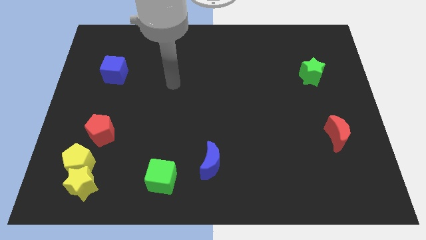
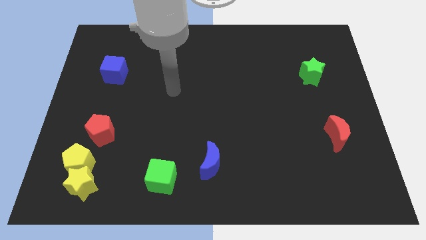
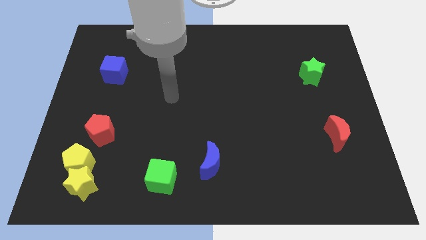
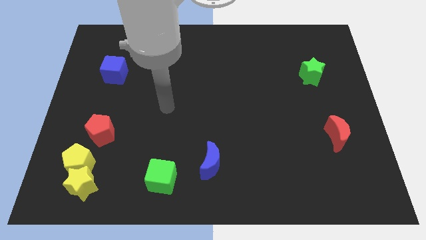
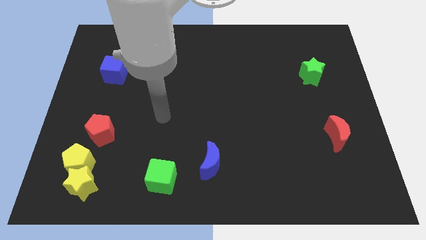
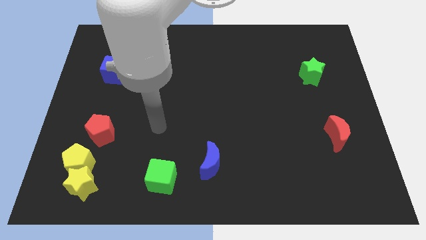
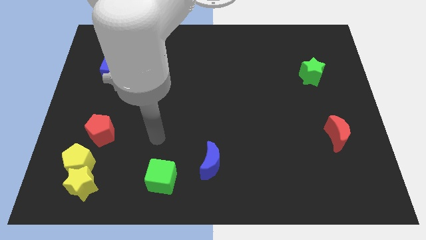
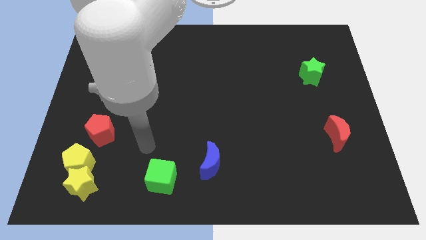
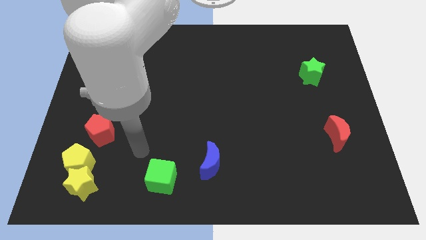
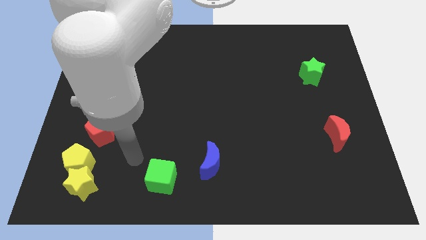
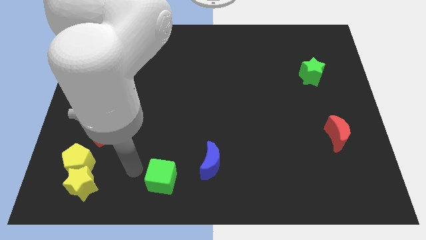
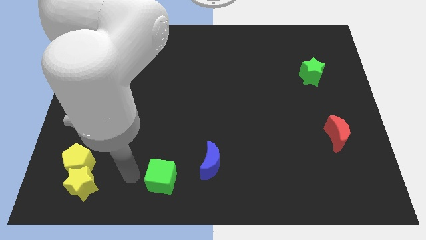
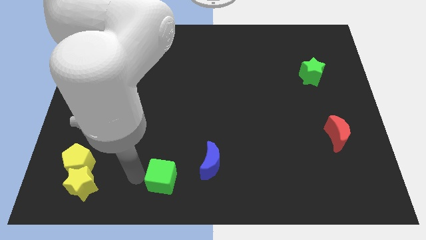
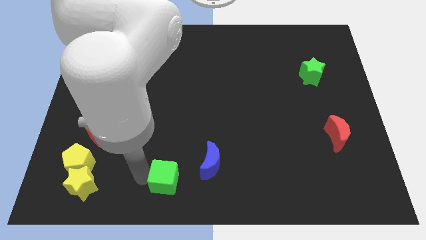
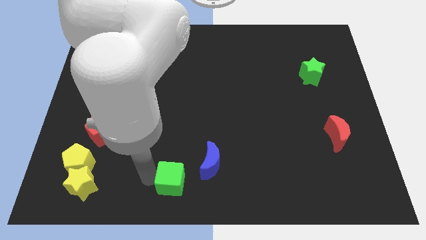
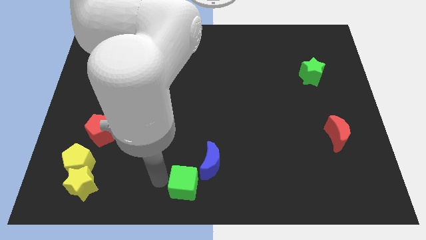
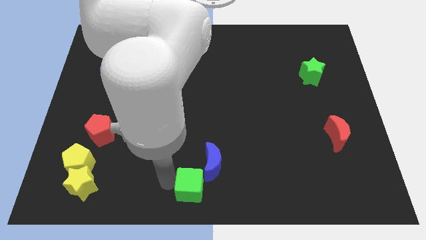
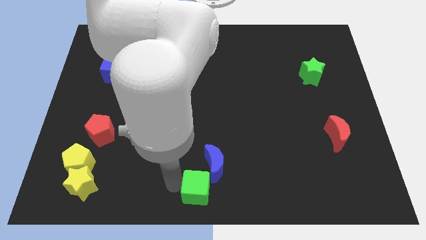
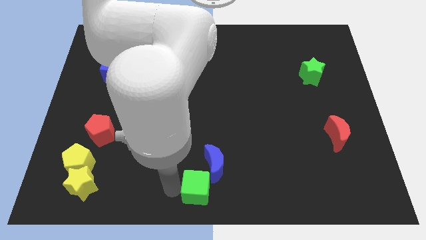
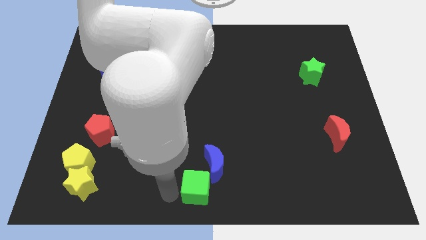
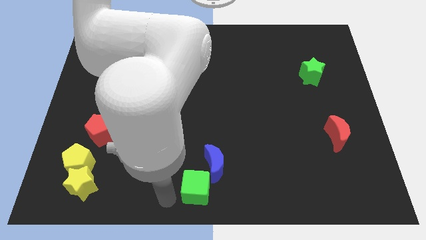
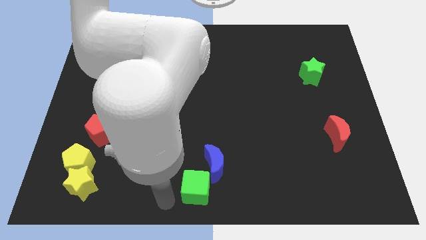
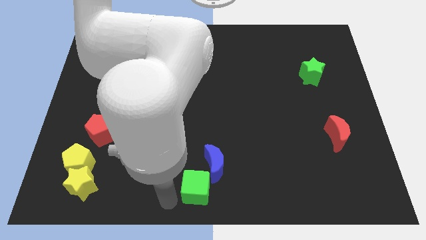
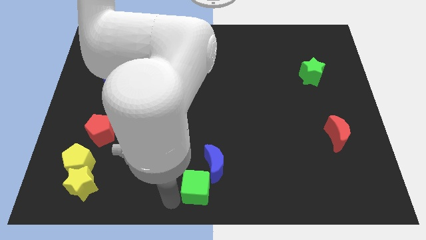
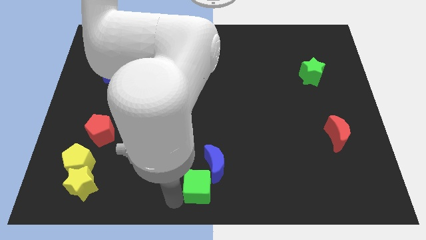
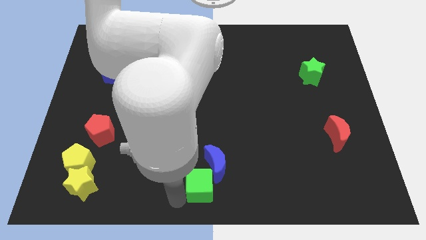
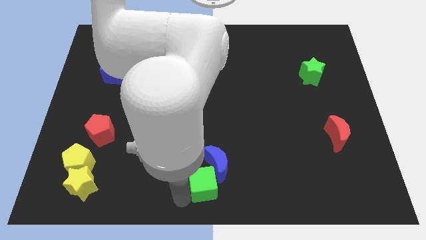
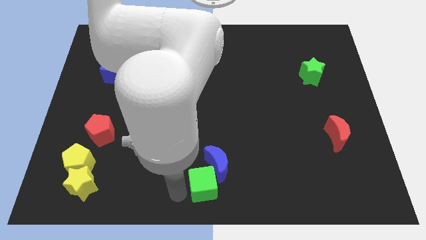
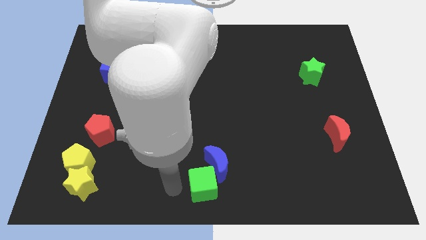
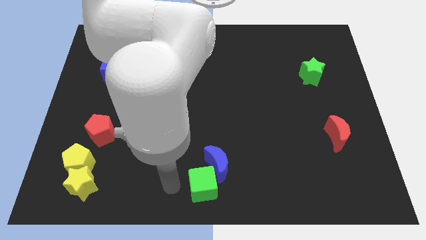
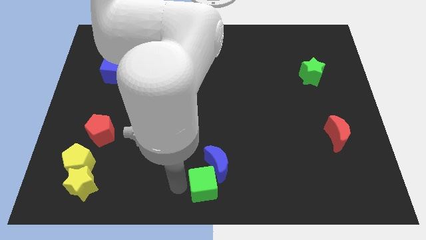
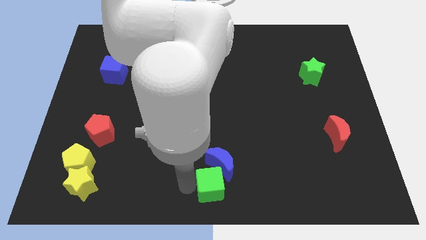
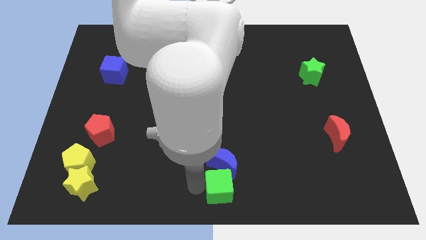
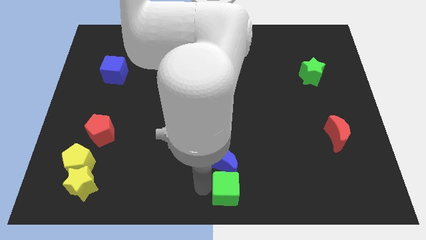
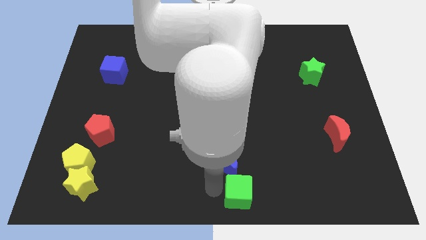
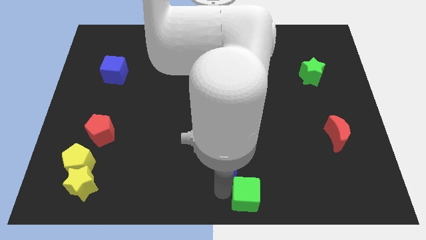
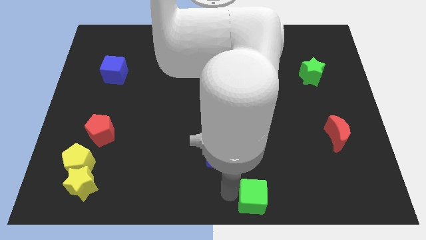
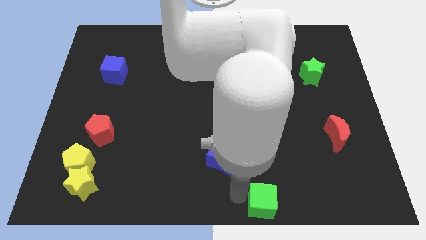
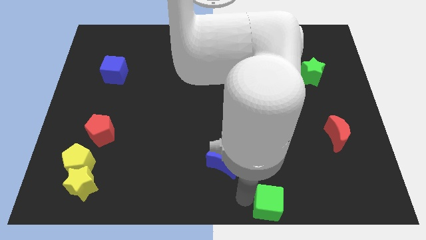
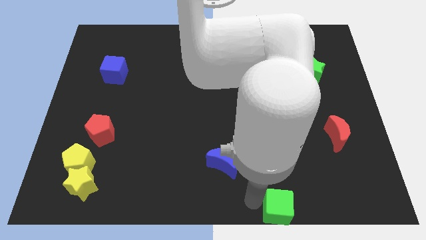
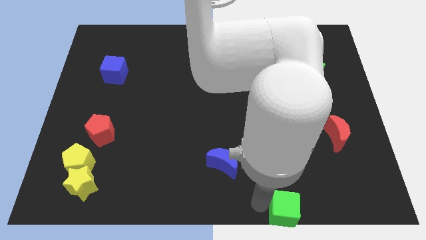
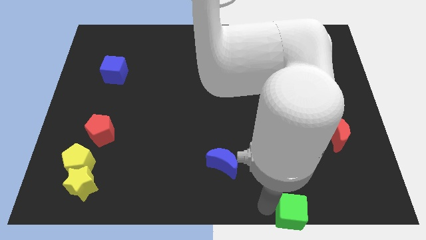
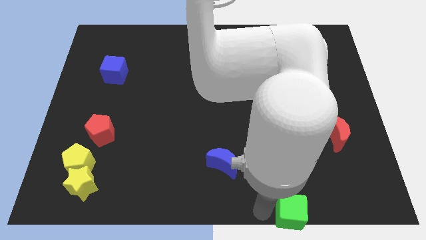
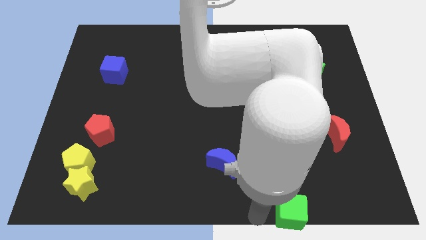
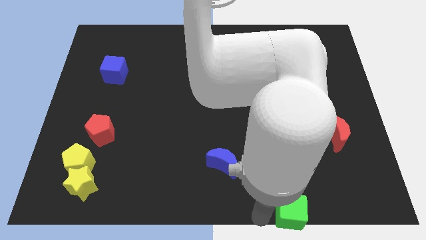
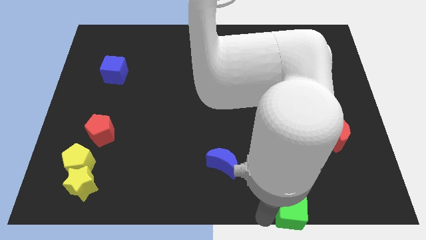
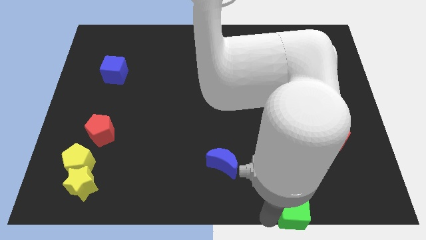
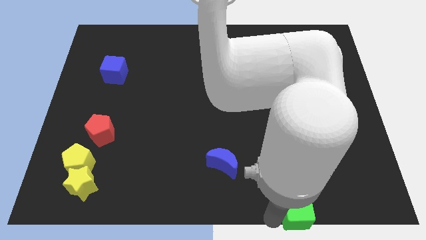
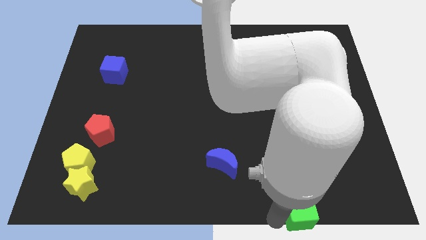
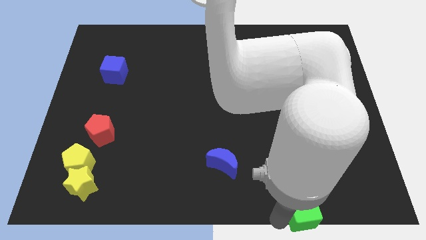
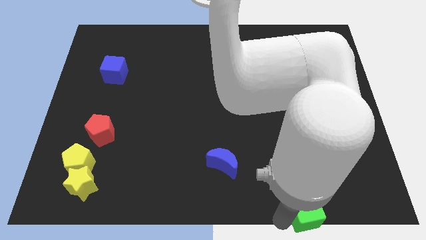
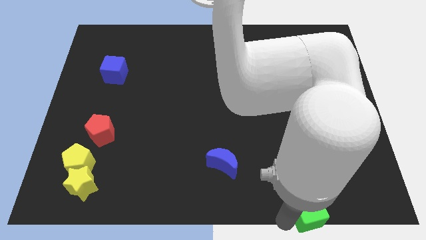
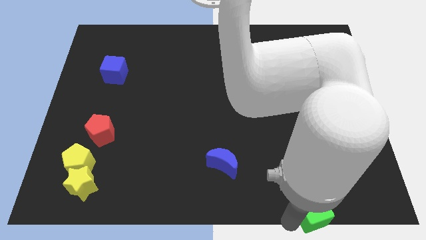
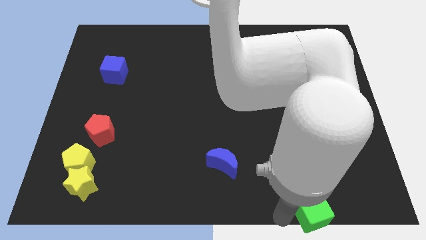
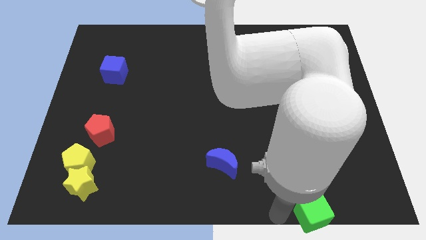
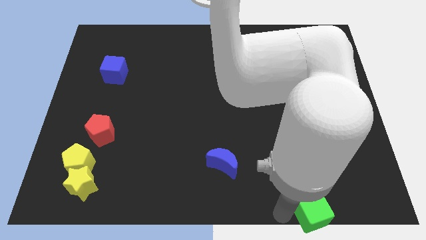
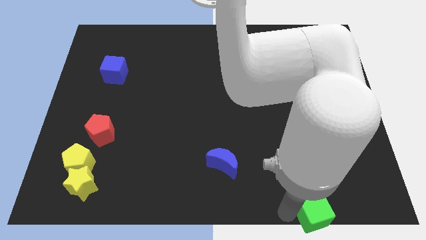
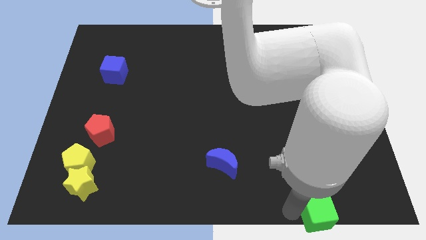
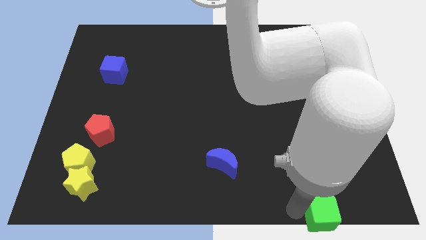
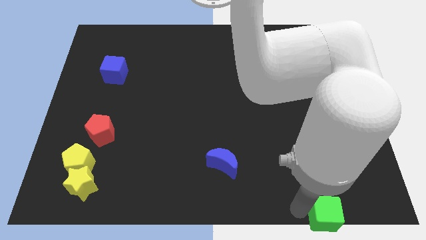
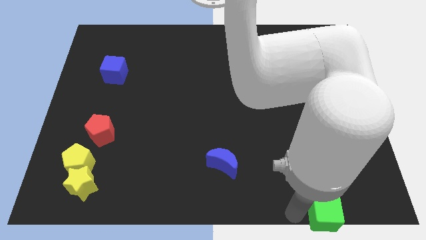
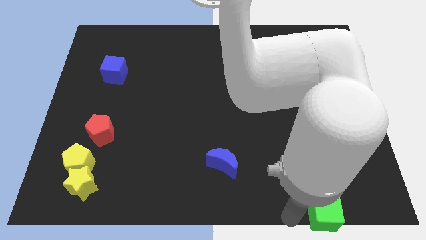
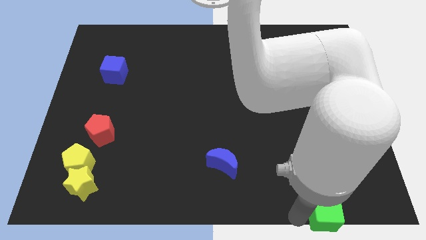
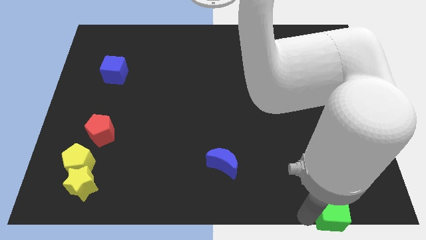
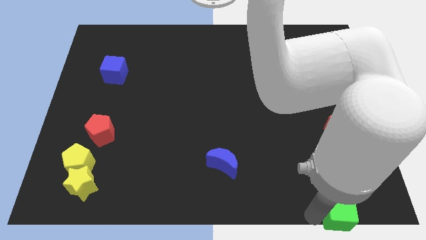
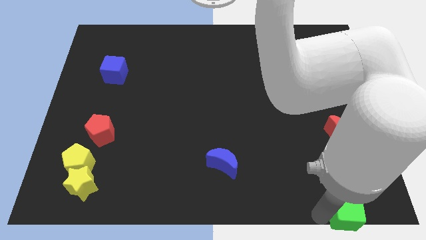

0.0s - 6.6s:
push the green cube to the bottom right corner
